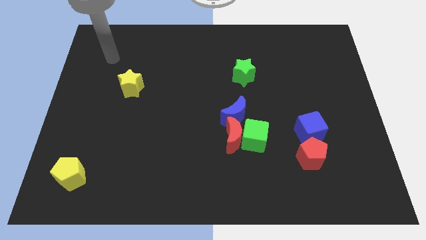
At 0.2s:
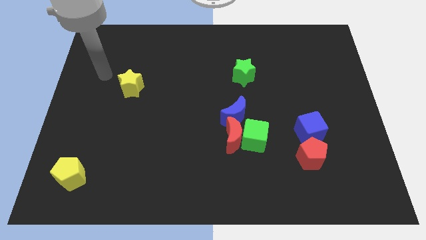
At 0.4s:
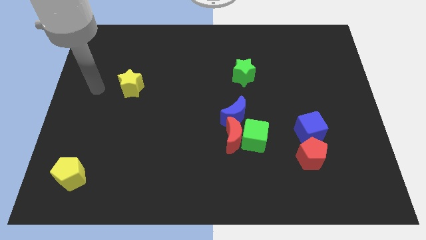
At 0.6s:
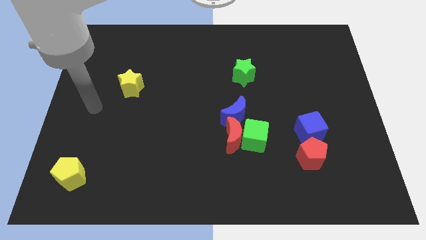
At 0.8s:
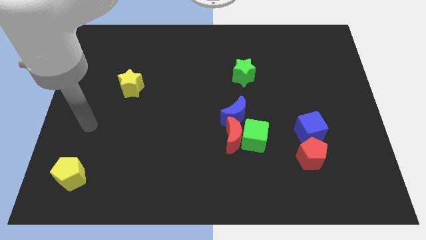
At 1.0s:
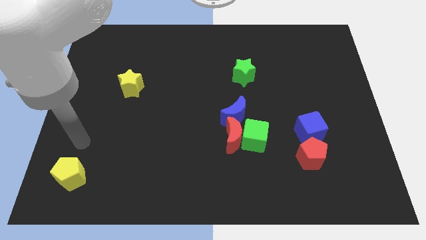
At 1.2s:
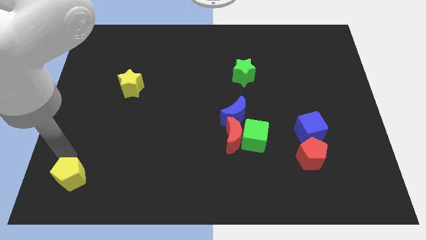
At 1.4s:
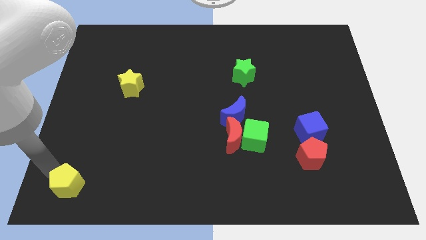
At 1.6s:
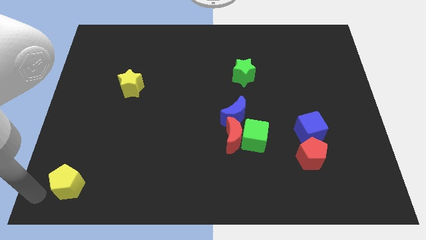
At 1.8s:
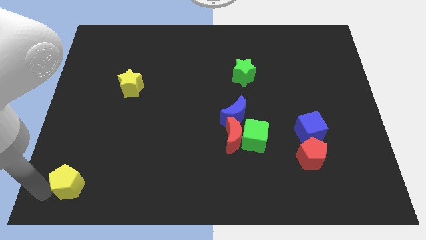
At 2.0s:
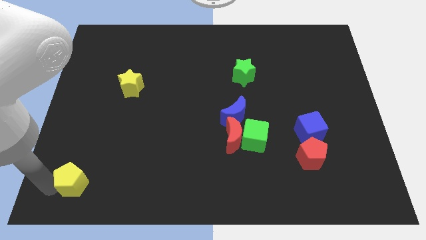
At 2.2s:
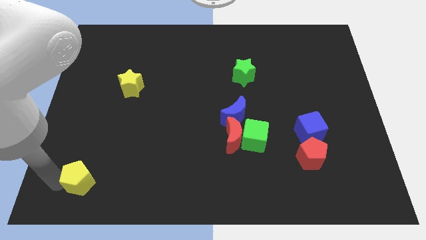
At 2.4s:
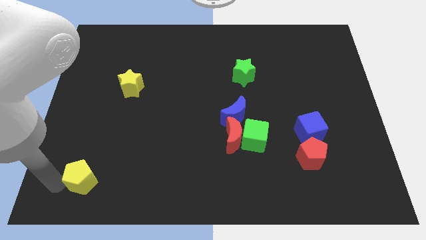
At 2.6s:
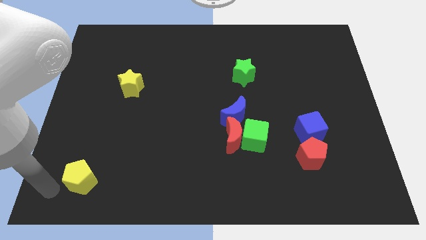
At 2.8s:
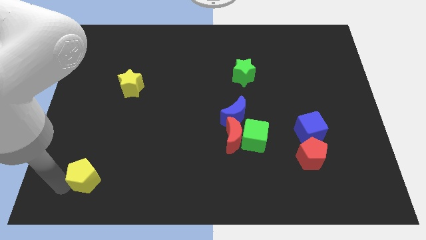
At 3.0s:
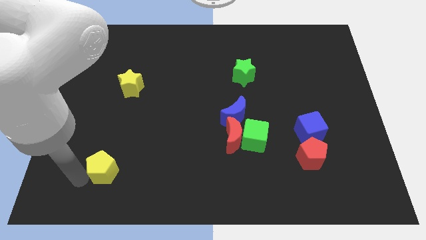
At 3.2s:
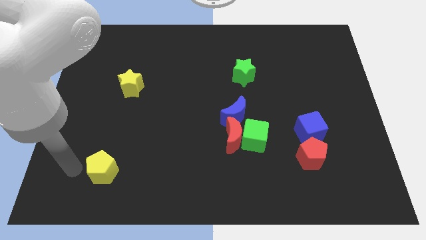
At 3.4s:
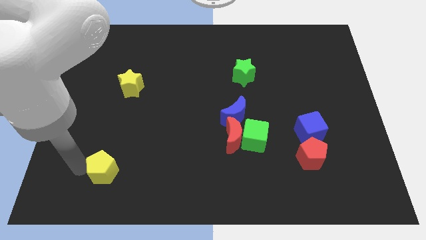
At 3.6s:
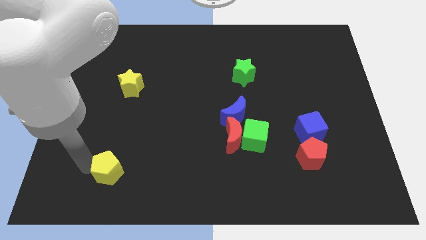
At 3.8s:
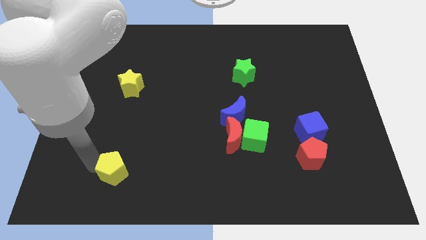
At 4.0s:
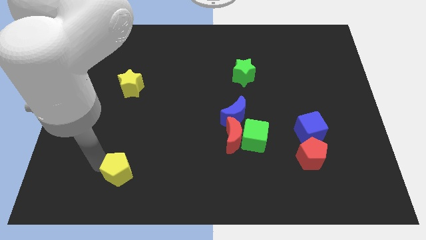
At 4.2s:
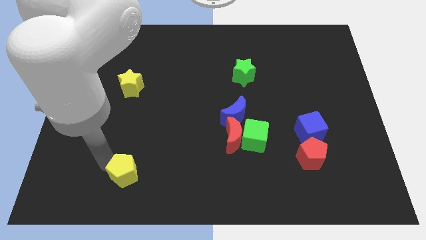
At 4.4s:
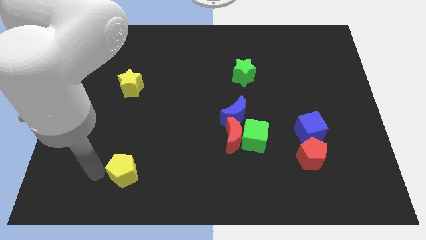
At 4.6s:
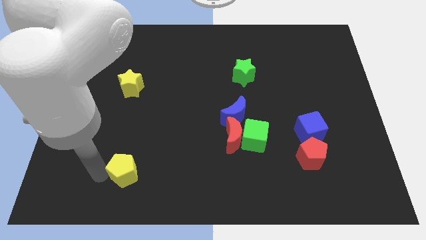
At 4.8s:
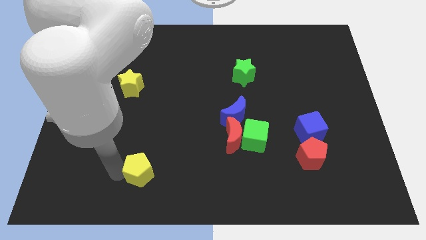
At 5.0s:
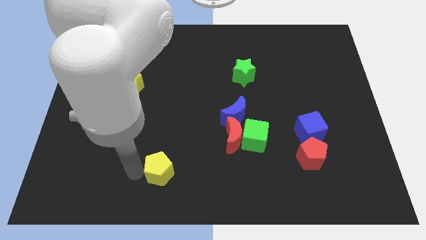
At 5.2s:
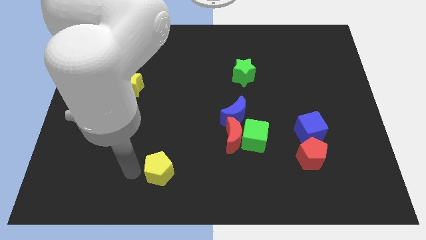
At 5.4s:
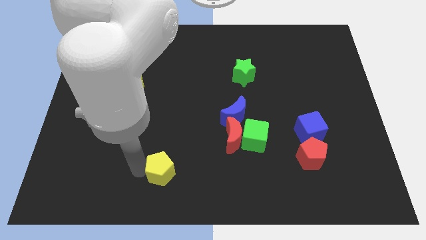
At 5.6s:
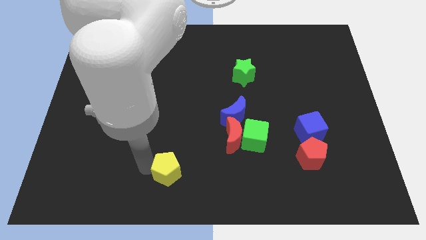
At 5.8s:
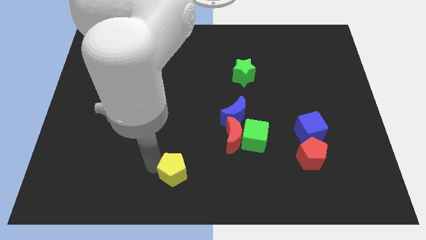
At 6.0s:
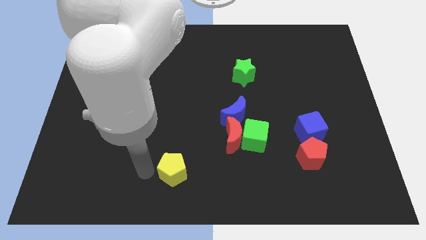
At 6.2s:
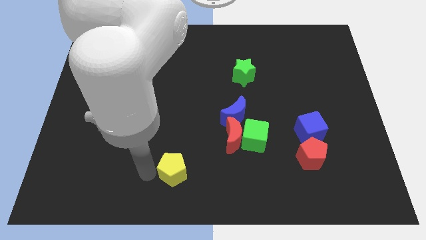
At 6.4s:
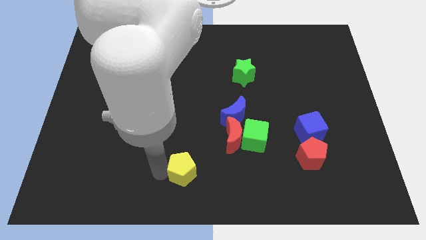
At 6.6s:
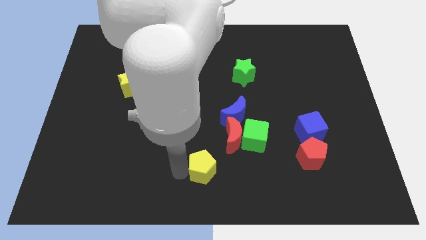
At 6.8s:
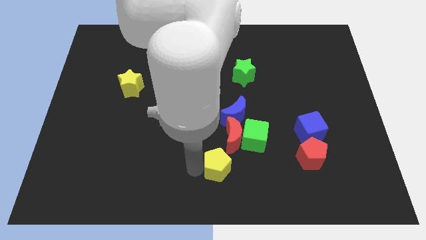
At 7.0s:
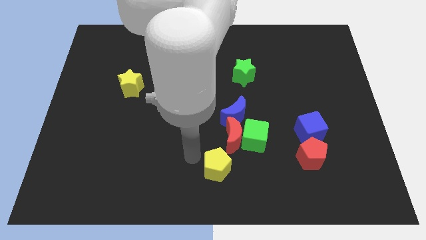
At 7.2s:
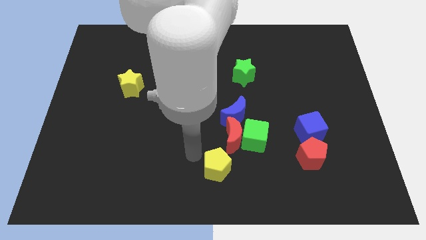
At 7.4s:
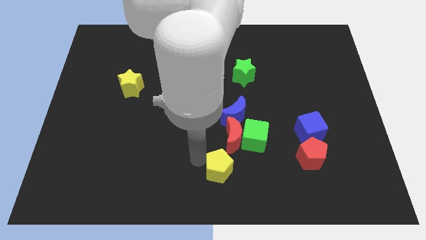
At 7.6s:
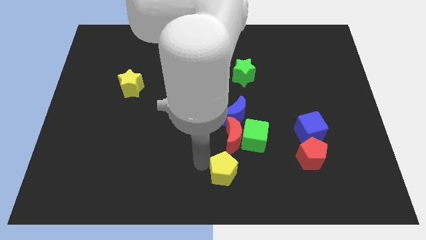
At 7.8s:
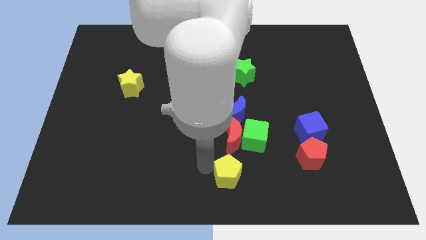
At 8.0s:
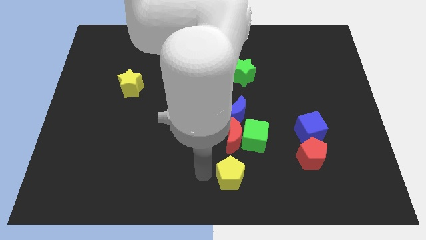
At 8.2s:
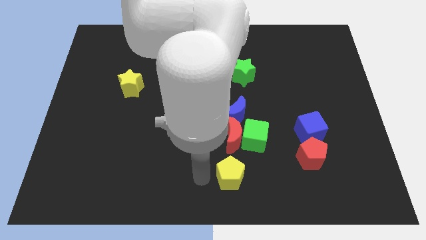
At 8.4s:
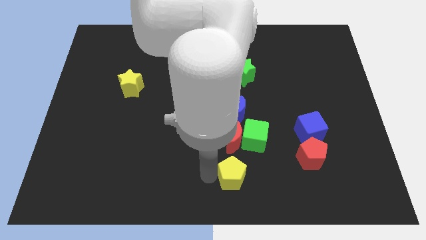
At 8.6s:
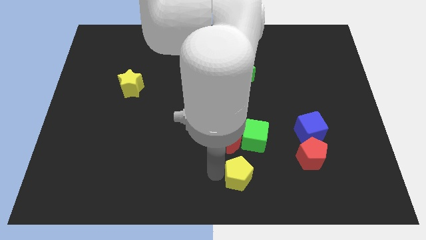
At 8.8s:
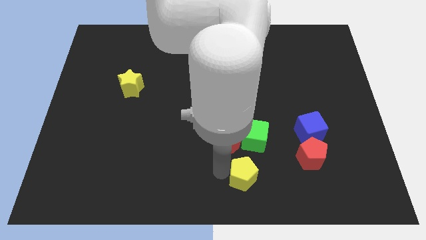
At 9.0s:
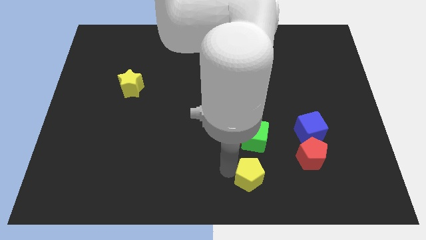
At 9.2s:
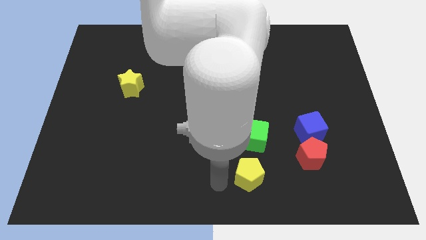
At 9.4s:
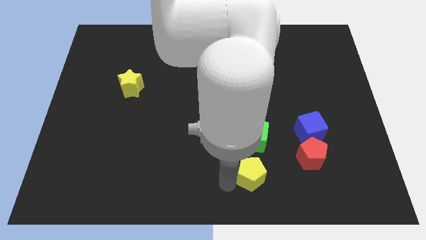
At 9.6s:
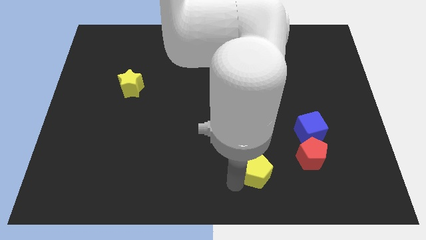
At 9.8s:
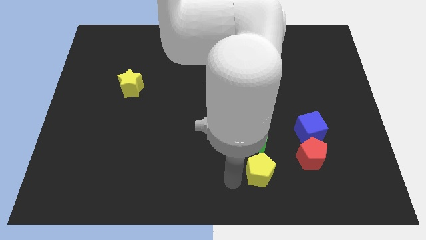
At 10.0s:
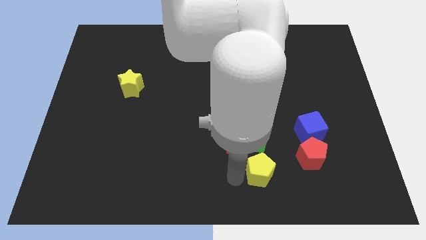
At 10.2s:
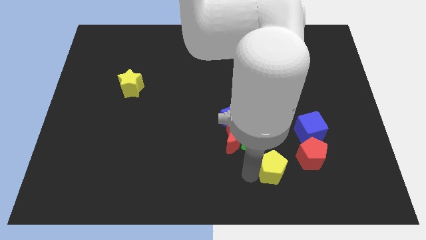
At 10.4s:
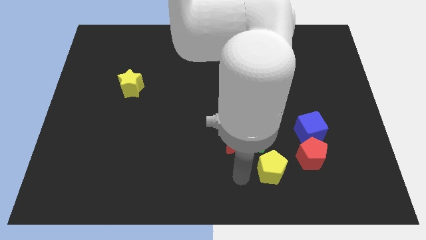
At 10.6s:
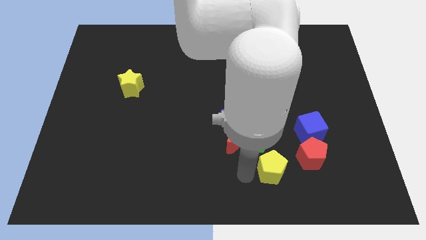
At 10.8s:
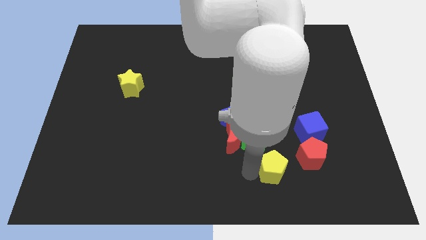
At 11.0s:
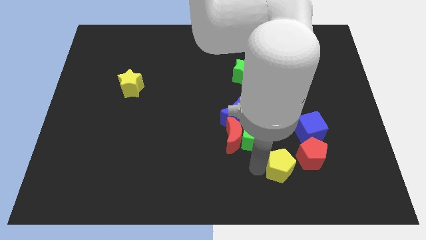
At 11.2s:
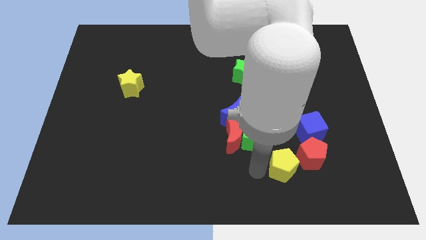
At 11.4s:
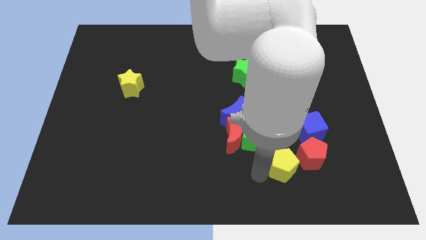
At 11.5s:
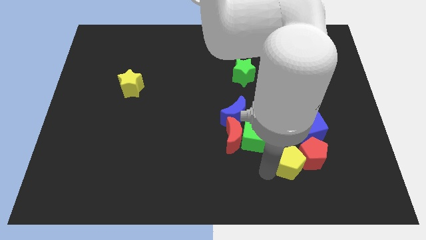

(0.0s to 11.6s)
put the yellow pentagon close to the red pentagon
